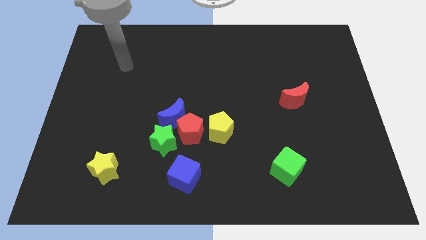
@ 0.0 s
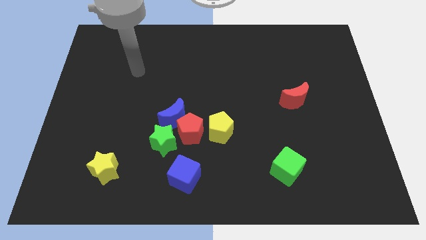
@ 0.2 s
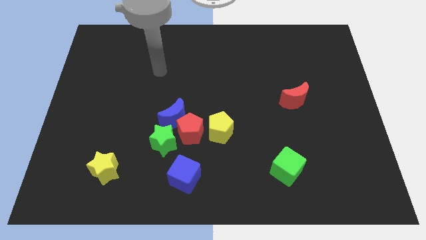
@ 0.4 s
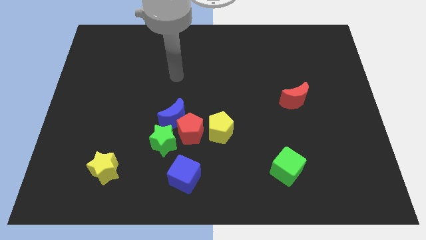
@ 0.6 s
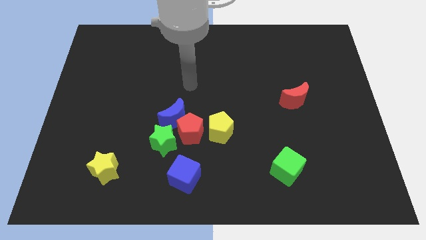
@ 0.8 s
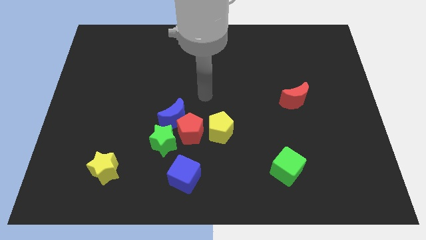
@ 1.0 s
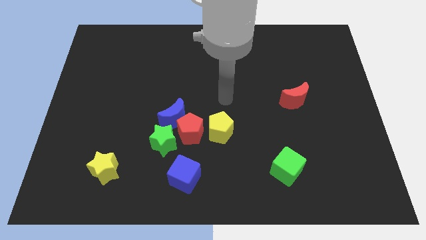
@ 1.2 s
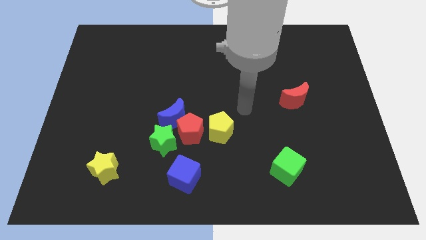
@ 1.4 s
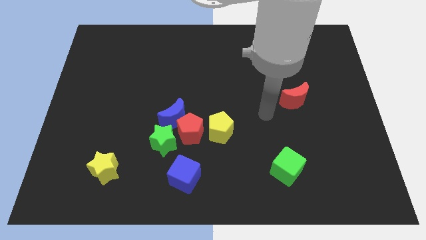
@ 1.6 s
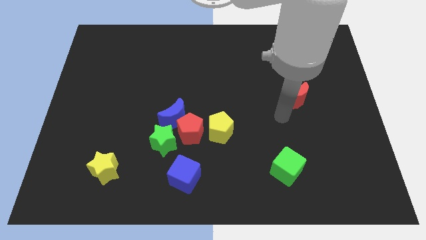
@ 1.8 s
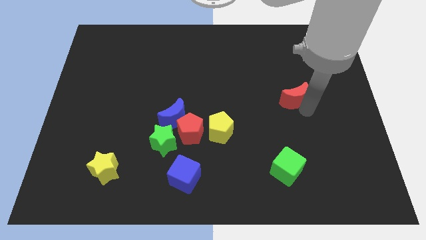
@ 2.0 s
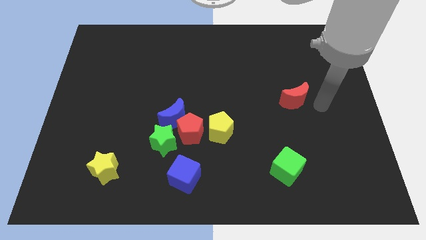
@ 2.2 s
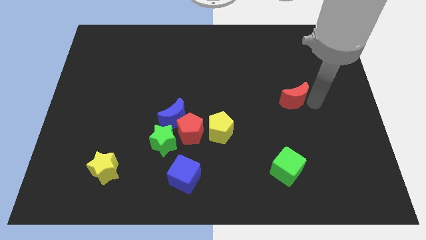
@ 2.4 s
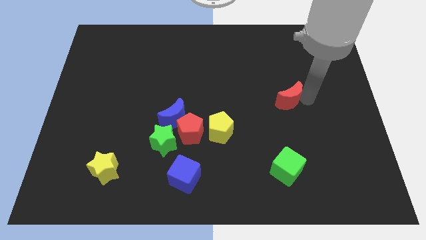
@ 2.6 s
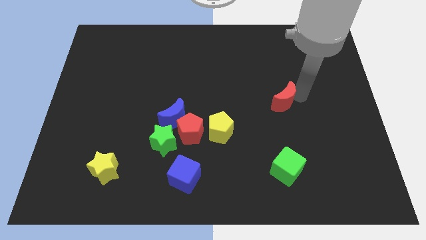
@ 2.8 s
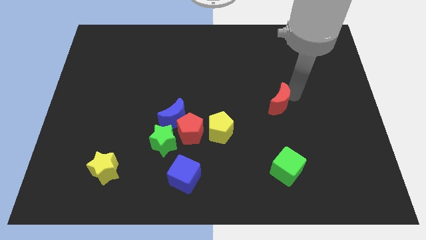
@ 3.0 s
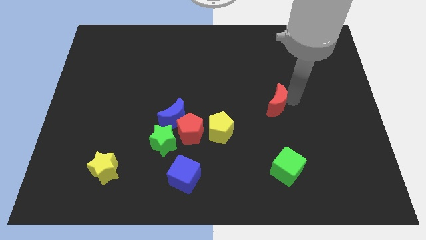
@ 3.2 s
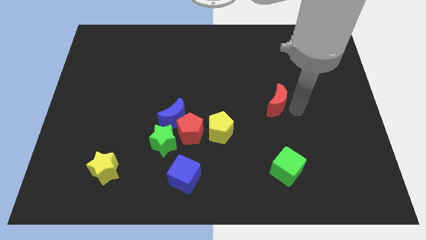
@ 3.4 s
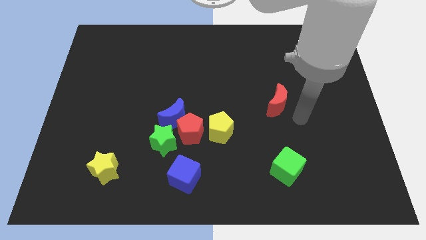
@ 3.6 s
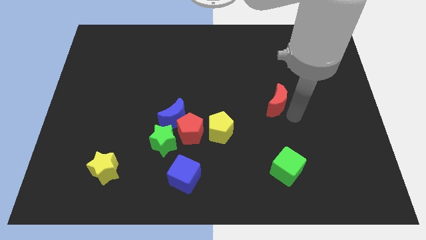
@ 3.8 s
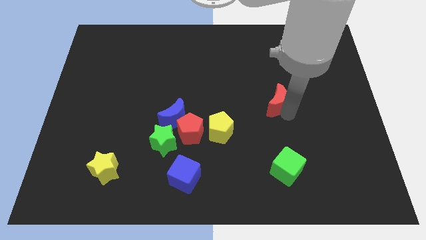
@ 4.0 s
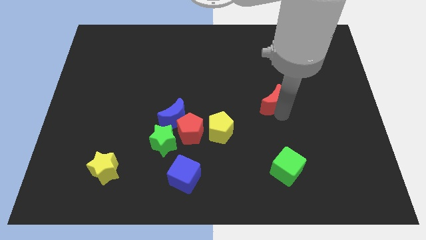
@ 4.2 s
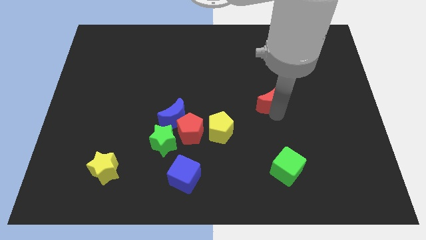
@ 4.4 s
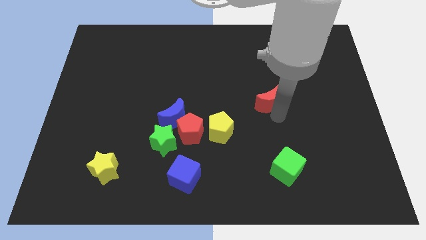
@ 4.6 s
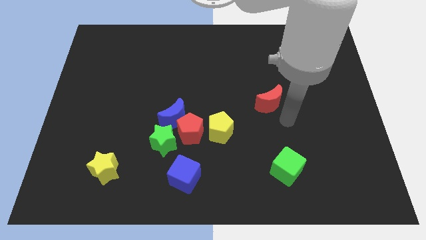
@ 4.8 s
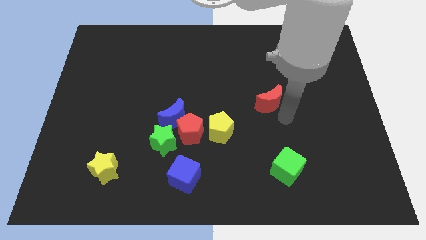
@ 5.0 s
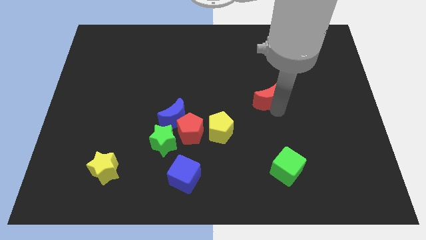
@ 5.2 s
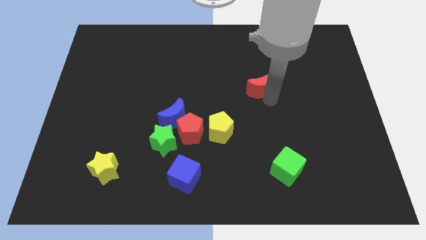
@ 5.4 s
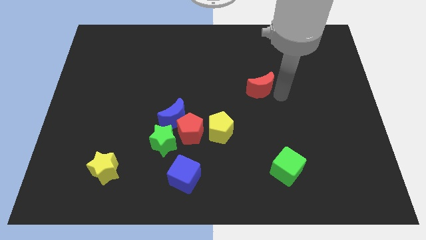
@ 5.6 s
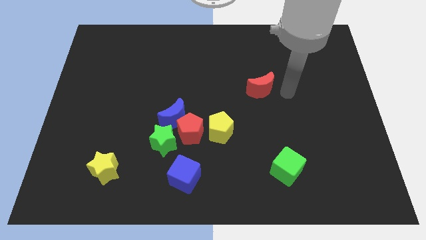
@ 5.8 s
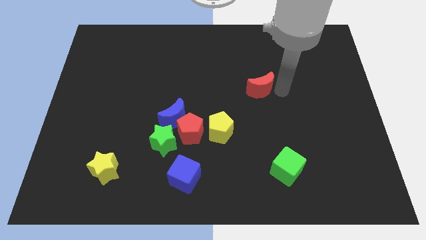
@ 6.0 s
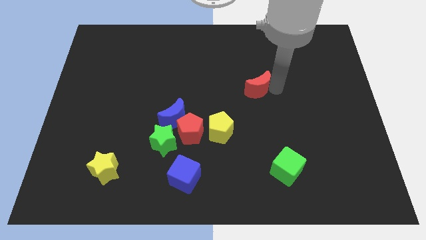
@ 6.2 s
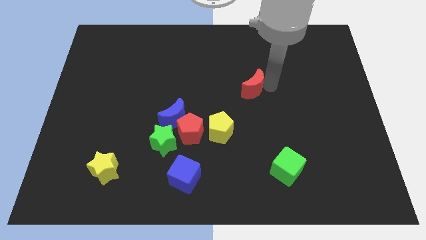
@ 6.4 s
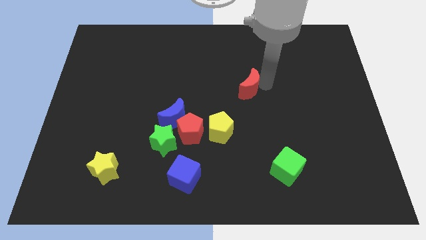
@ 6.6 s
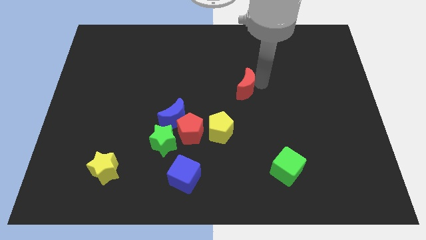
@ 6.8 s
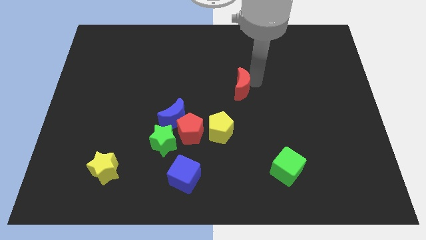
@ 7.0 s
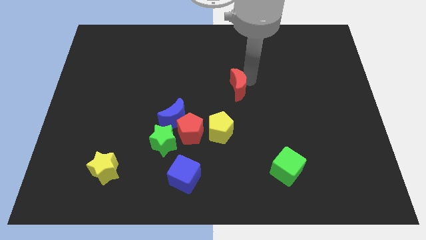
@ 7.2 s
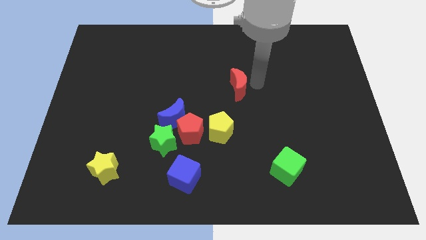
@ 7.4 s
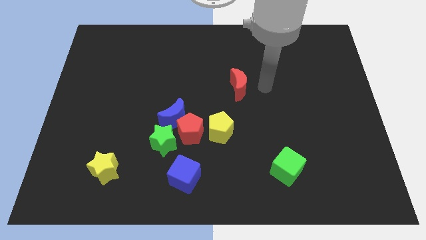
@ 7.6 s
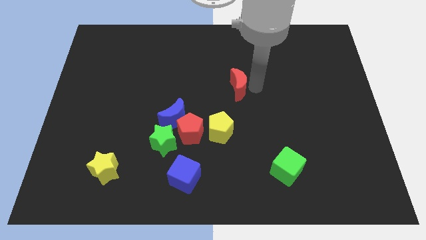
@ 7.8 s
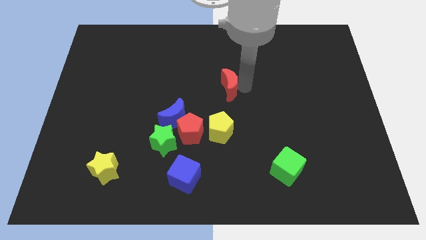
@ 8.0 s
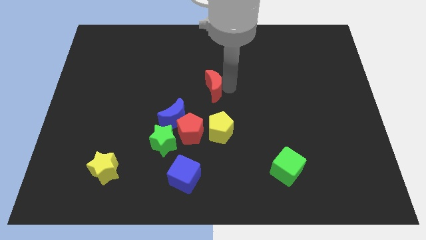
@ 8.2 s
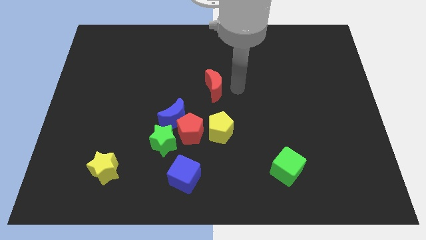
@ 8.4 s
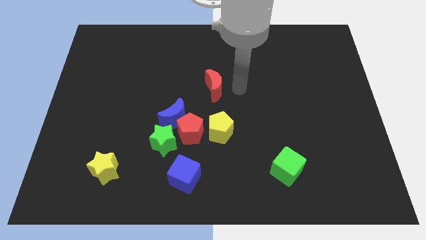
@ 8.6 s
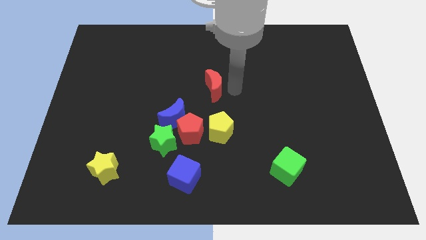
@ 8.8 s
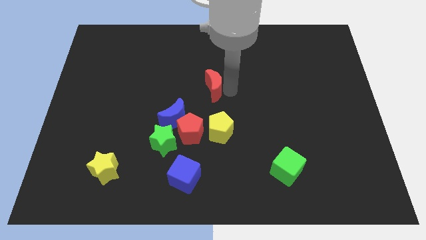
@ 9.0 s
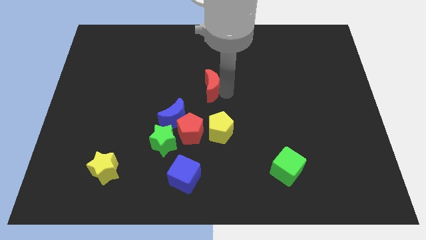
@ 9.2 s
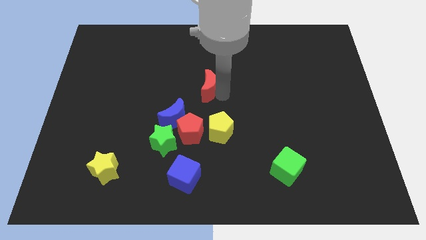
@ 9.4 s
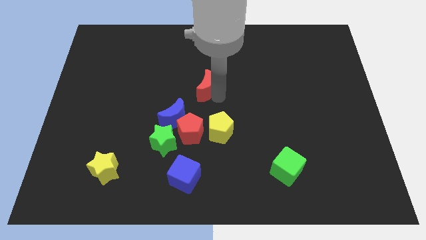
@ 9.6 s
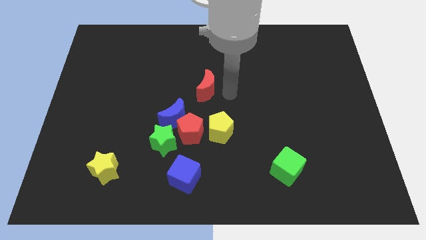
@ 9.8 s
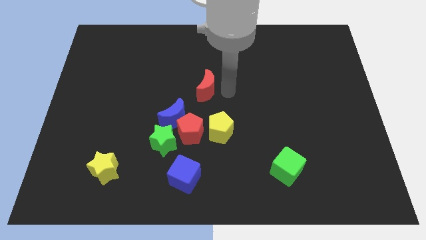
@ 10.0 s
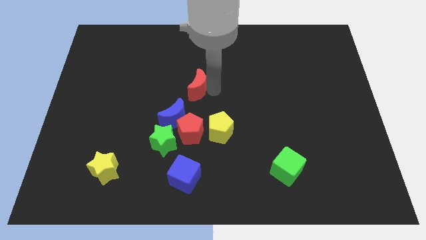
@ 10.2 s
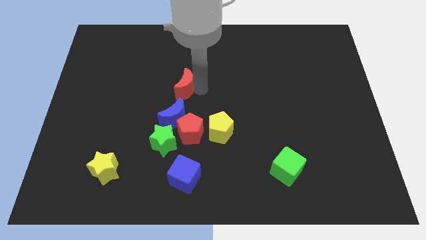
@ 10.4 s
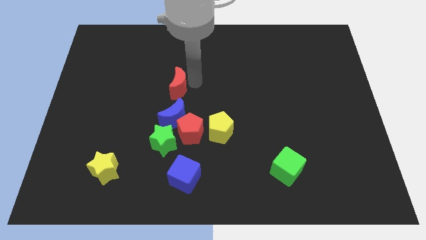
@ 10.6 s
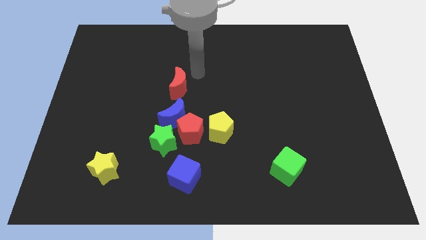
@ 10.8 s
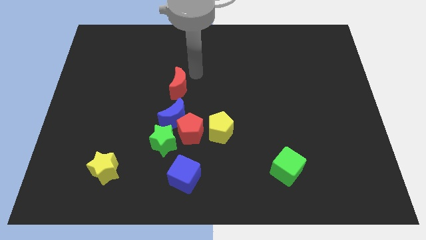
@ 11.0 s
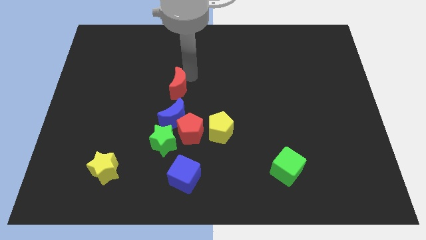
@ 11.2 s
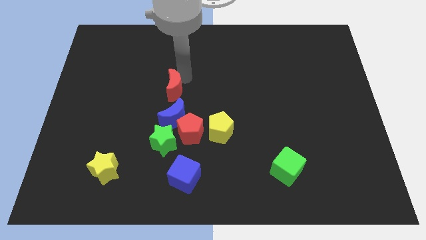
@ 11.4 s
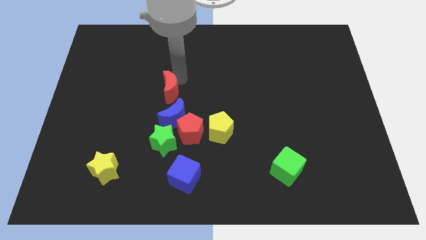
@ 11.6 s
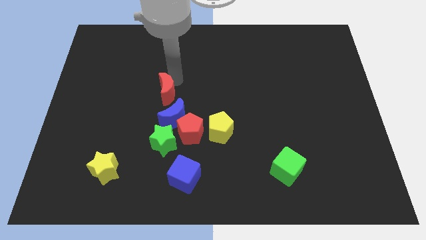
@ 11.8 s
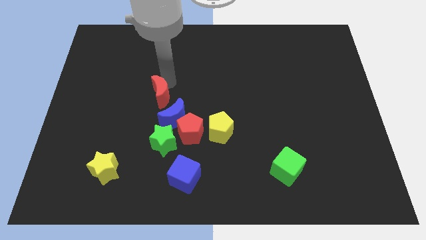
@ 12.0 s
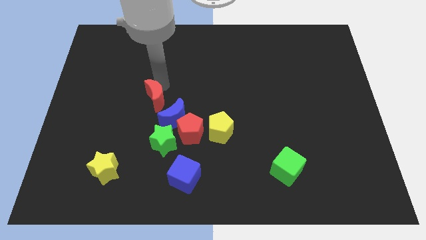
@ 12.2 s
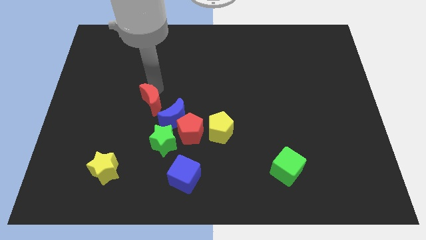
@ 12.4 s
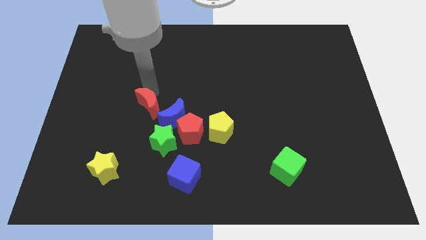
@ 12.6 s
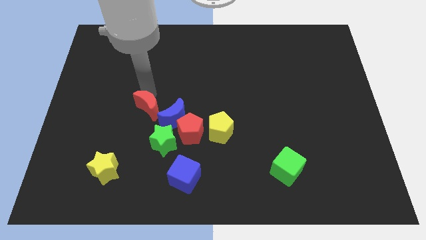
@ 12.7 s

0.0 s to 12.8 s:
slide the red moon to the top left of the green star
